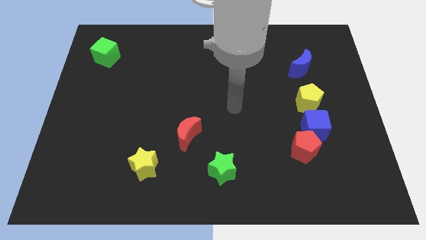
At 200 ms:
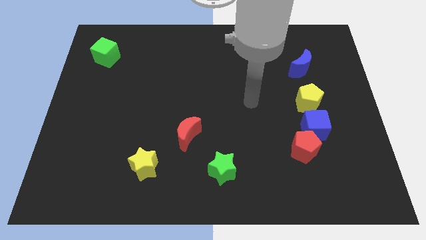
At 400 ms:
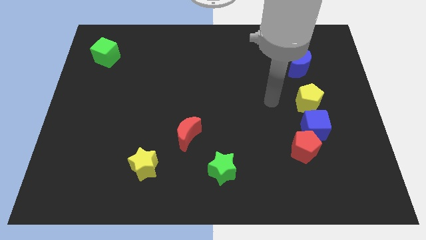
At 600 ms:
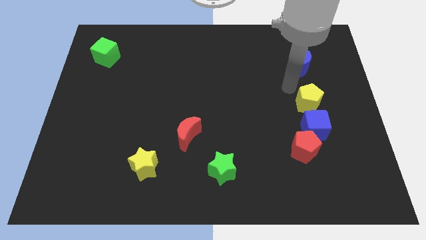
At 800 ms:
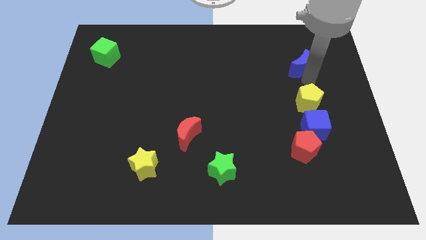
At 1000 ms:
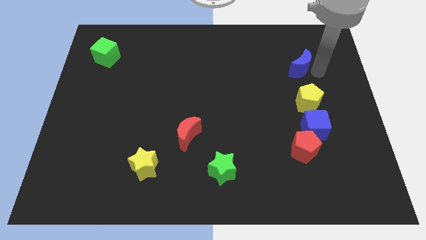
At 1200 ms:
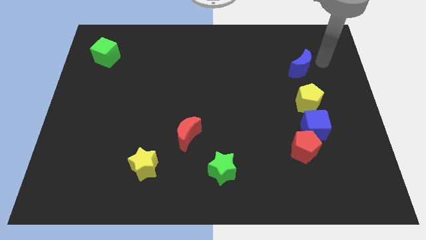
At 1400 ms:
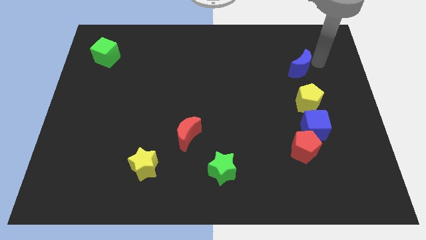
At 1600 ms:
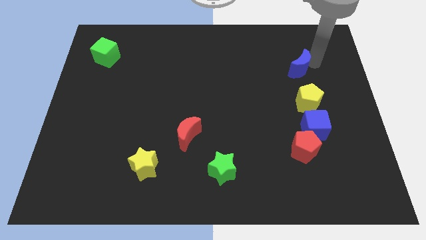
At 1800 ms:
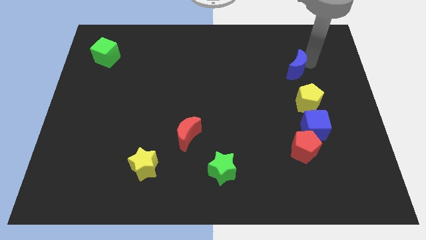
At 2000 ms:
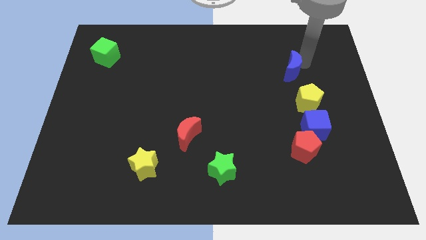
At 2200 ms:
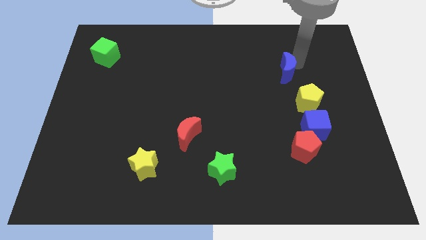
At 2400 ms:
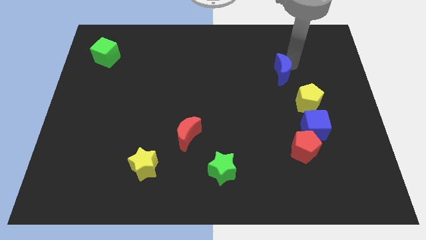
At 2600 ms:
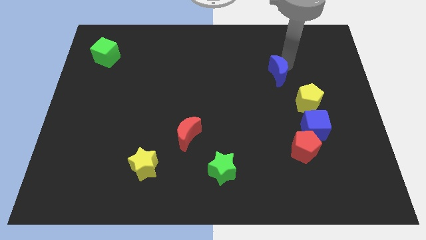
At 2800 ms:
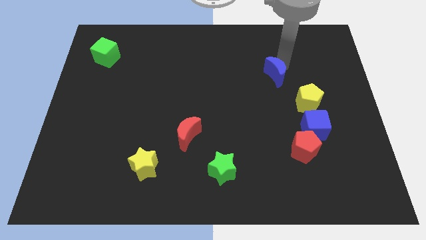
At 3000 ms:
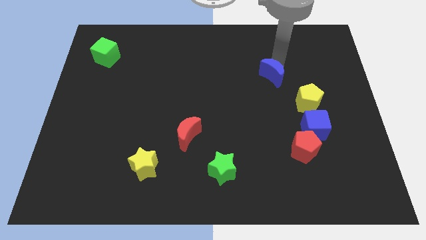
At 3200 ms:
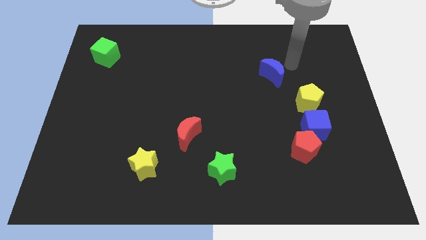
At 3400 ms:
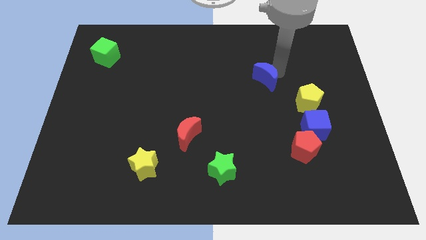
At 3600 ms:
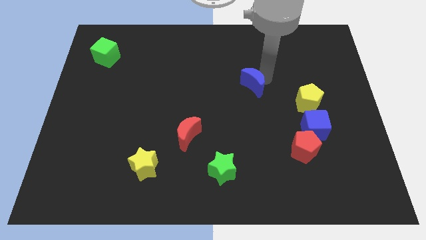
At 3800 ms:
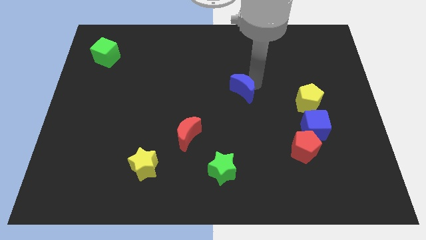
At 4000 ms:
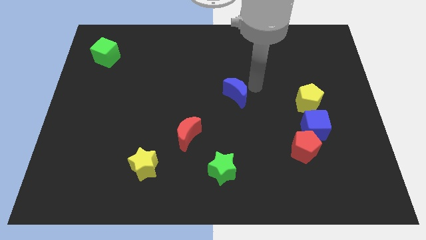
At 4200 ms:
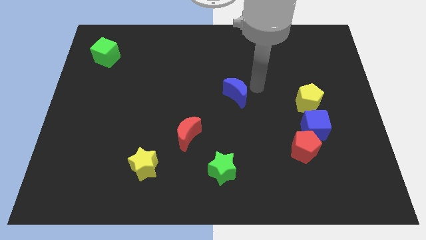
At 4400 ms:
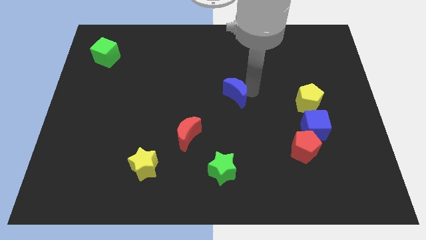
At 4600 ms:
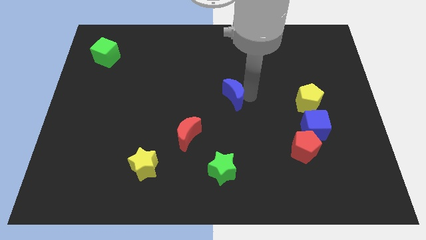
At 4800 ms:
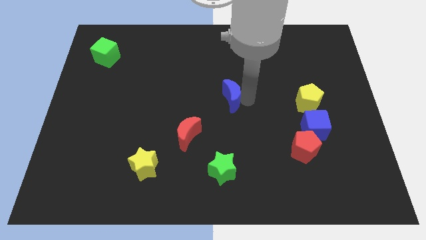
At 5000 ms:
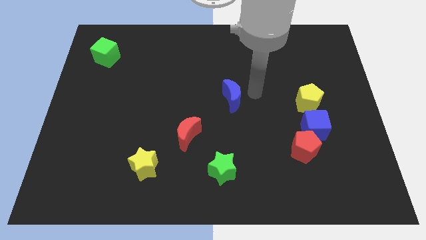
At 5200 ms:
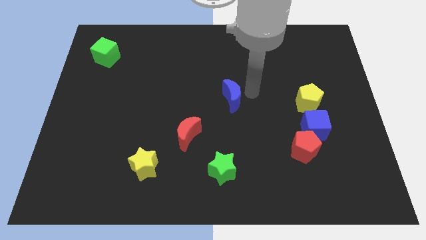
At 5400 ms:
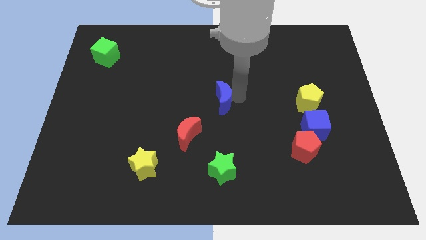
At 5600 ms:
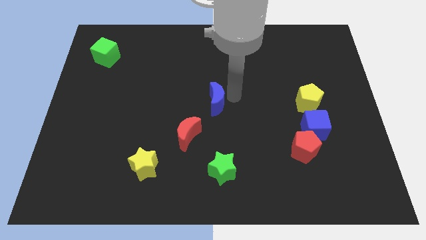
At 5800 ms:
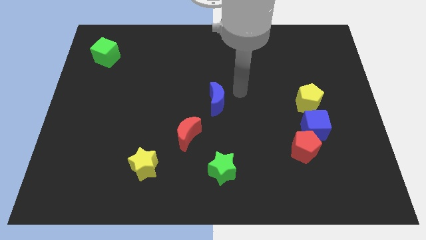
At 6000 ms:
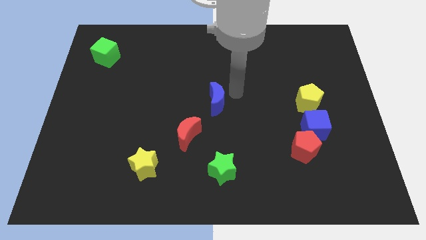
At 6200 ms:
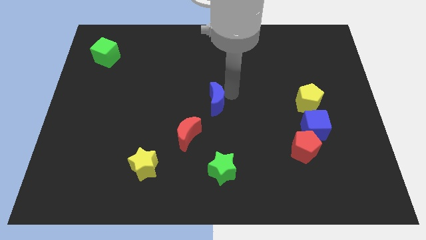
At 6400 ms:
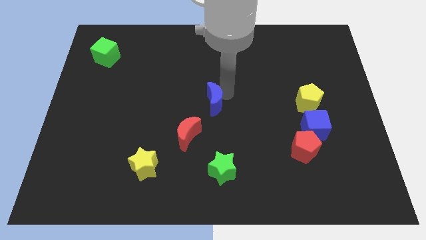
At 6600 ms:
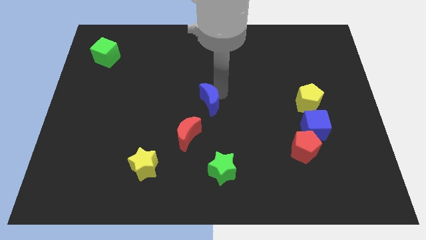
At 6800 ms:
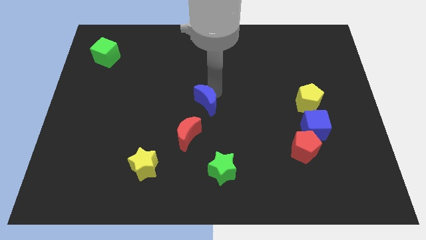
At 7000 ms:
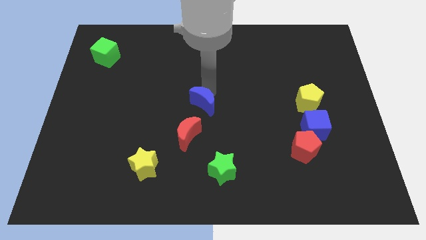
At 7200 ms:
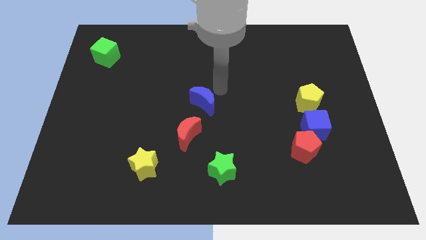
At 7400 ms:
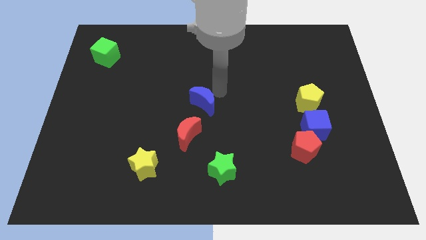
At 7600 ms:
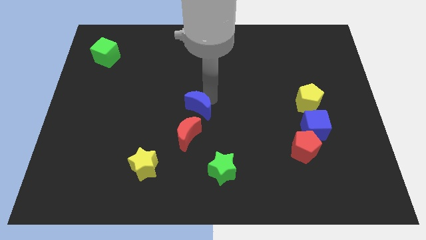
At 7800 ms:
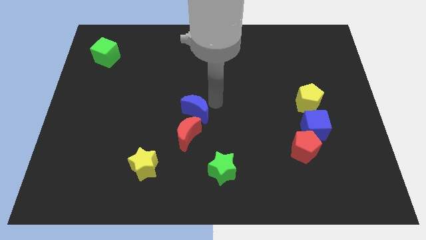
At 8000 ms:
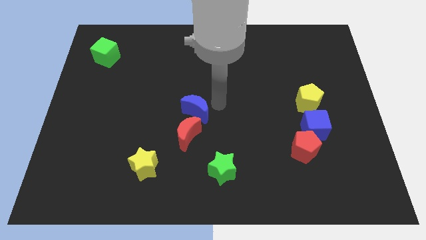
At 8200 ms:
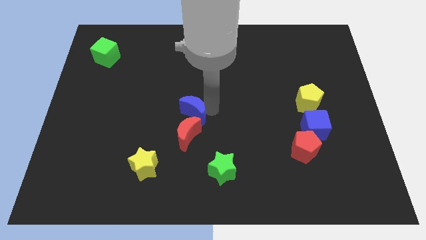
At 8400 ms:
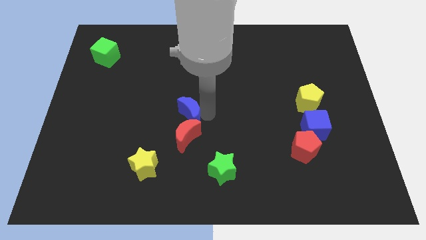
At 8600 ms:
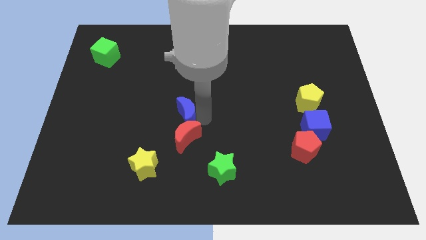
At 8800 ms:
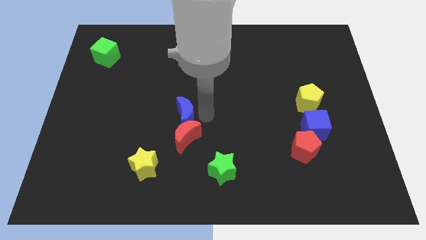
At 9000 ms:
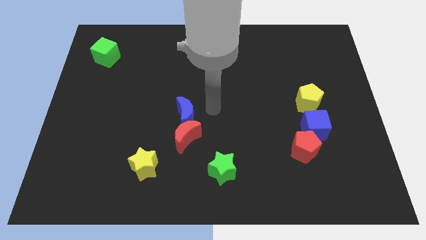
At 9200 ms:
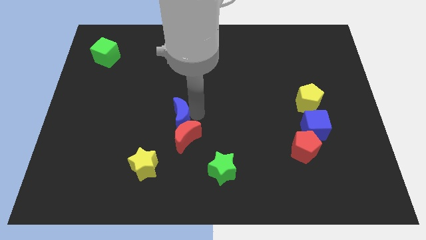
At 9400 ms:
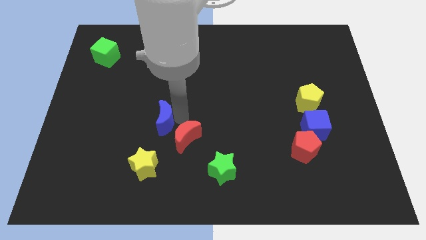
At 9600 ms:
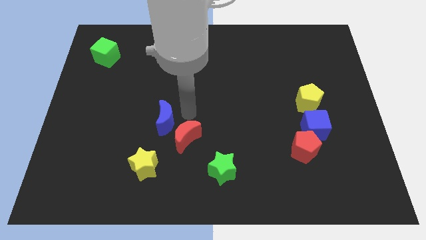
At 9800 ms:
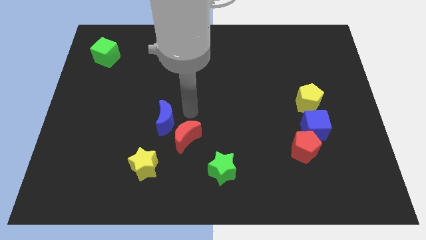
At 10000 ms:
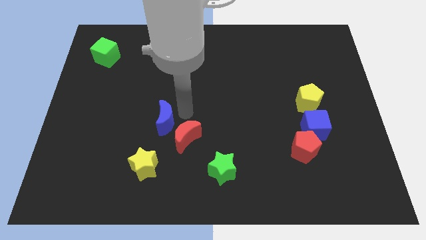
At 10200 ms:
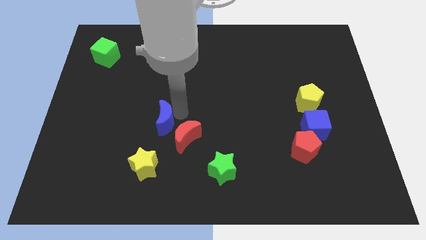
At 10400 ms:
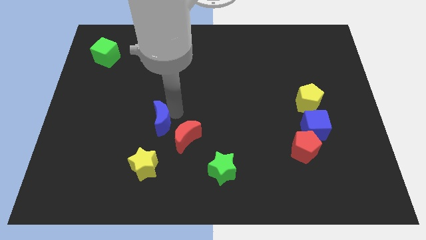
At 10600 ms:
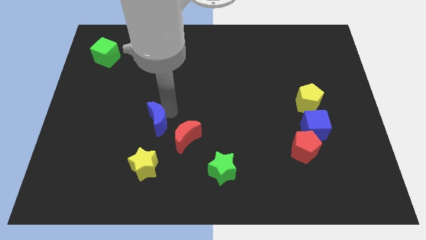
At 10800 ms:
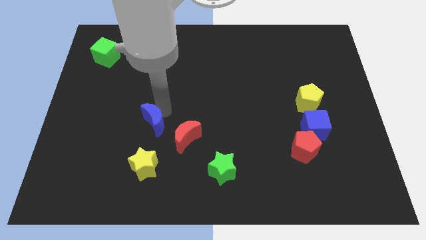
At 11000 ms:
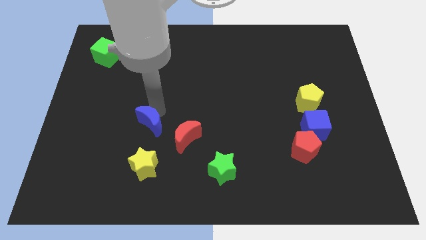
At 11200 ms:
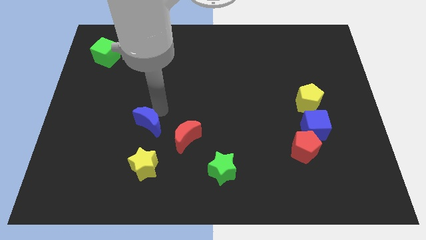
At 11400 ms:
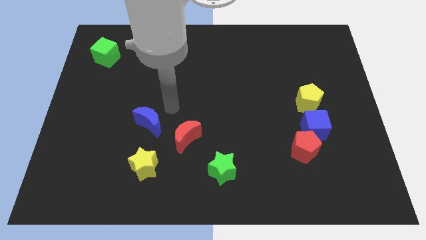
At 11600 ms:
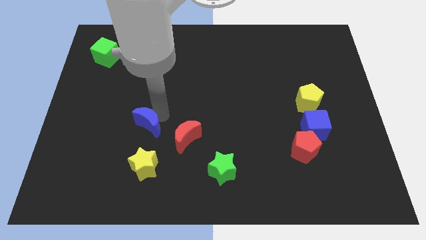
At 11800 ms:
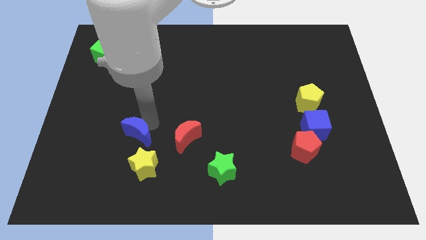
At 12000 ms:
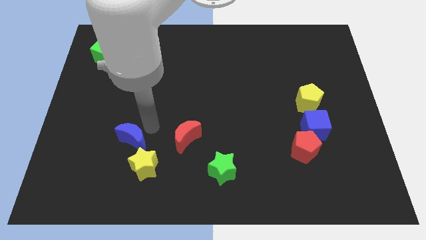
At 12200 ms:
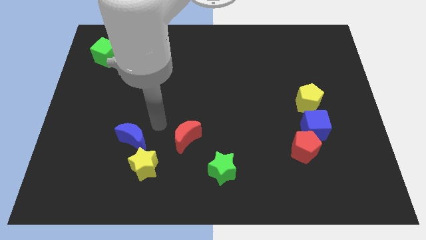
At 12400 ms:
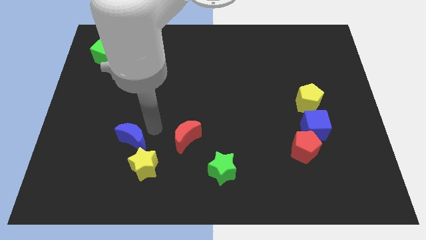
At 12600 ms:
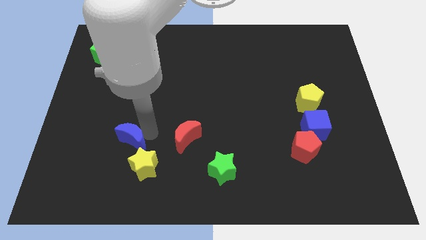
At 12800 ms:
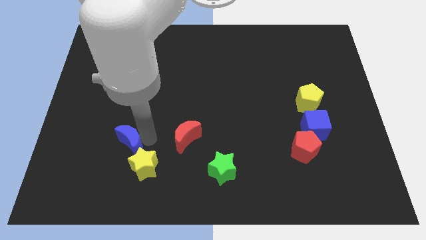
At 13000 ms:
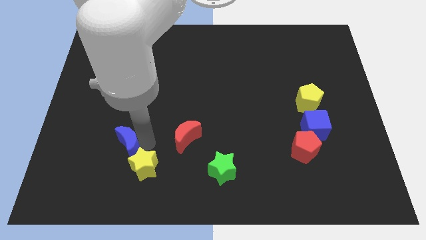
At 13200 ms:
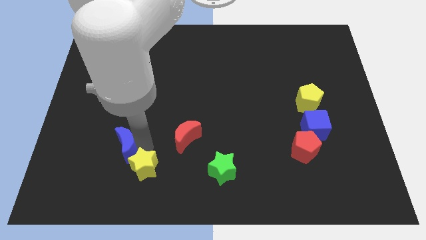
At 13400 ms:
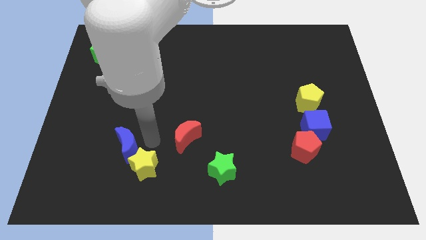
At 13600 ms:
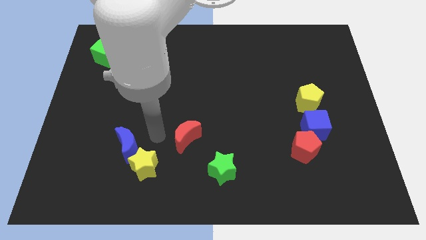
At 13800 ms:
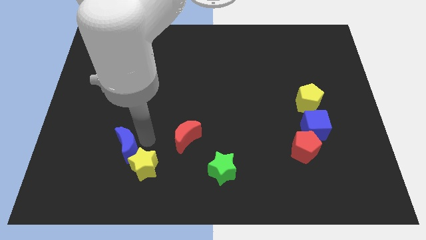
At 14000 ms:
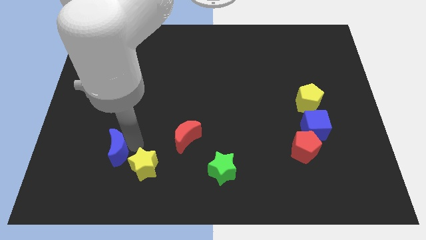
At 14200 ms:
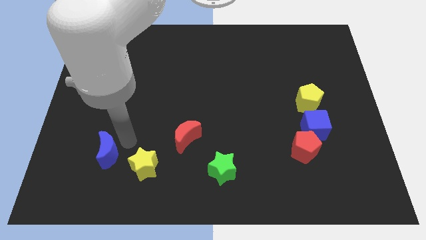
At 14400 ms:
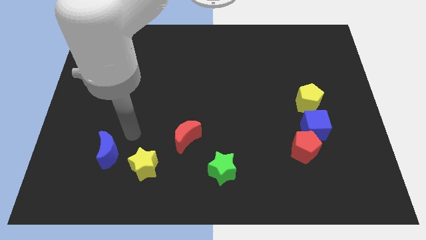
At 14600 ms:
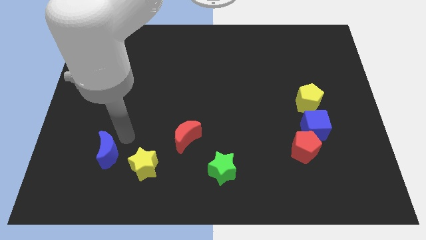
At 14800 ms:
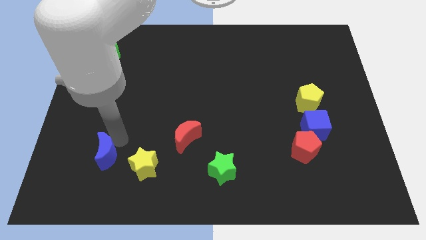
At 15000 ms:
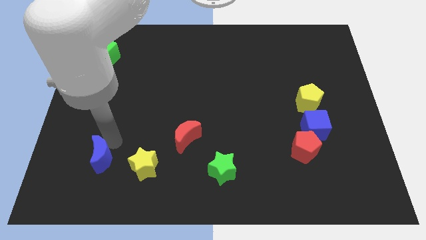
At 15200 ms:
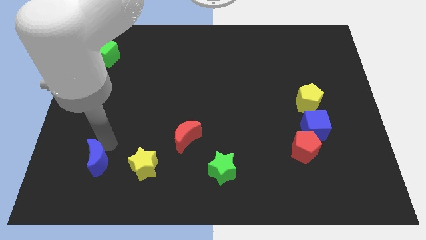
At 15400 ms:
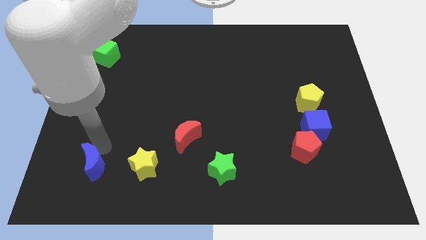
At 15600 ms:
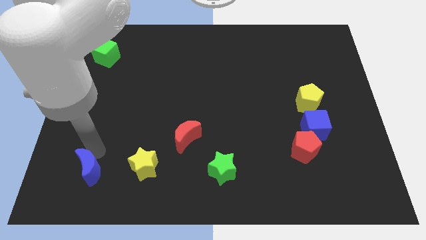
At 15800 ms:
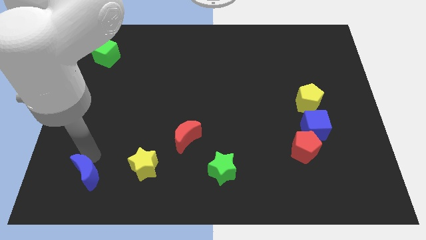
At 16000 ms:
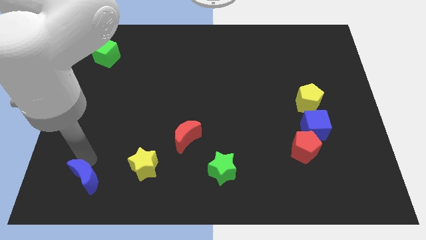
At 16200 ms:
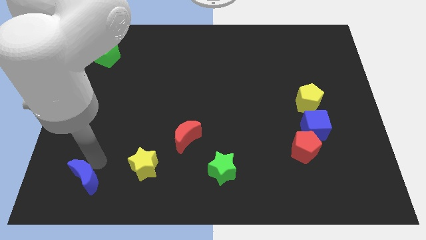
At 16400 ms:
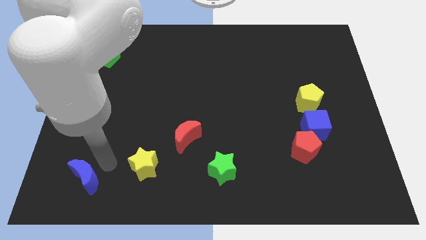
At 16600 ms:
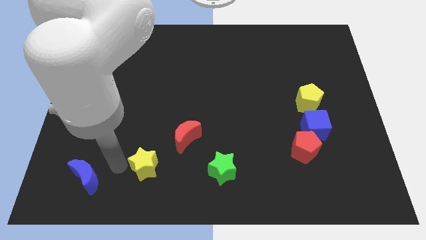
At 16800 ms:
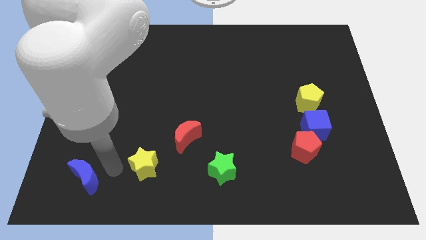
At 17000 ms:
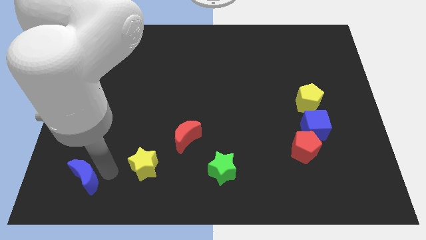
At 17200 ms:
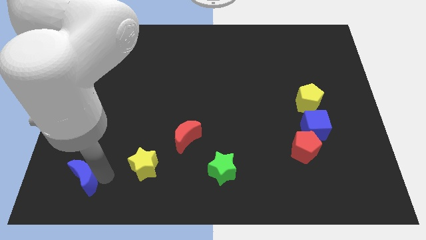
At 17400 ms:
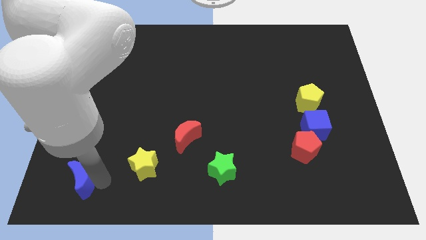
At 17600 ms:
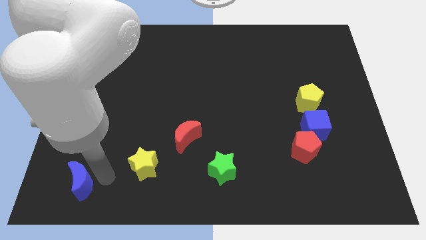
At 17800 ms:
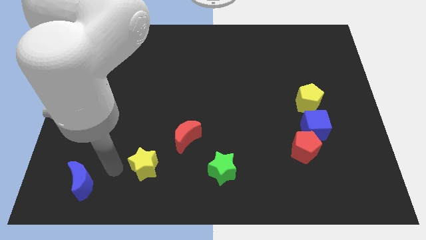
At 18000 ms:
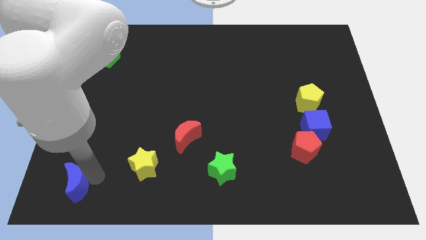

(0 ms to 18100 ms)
push the blue moon to the lower left corner
